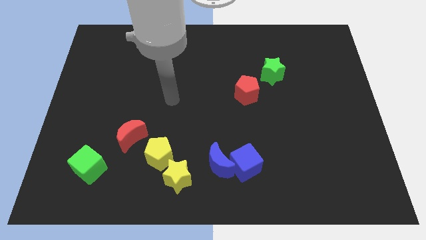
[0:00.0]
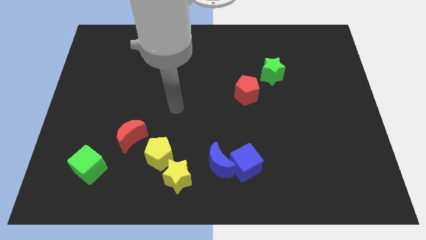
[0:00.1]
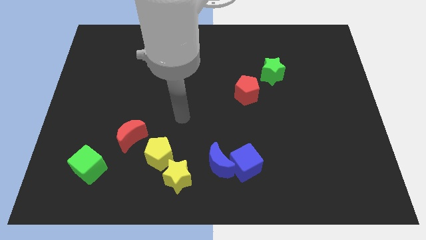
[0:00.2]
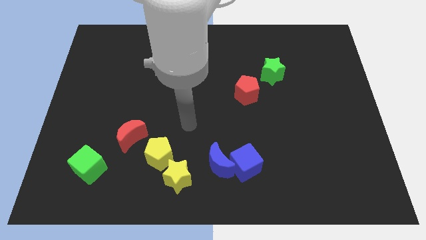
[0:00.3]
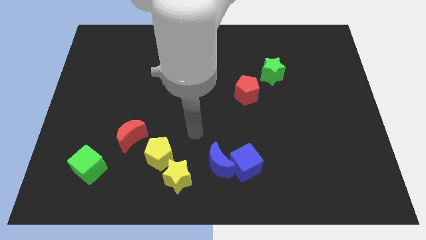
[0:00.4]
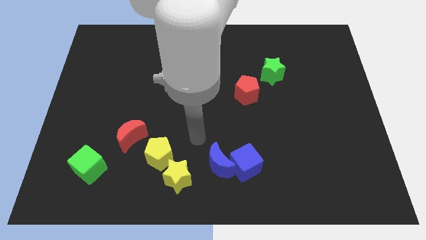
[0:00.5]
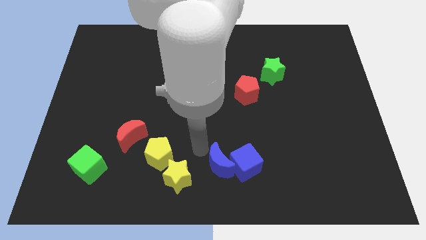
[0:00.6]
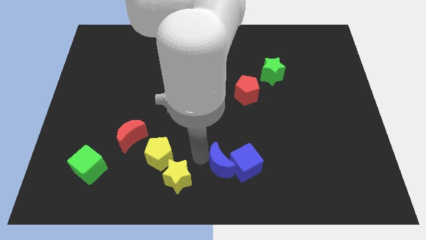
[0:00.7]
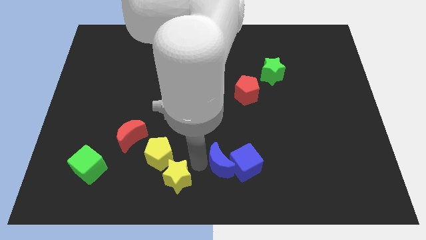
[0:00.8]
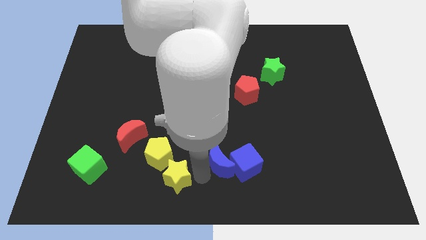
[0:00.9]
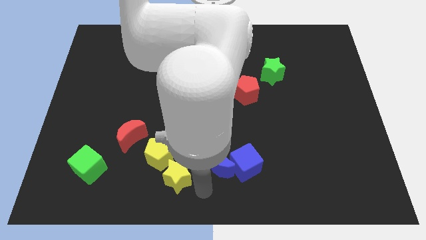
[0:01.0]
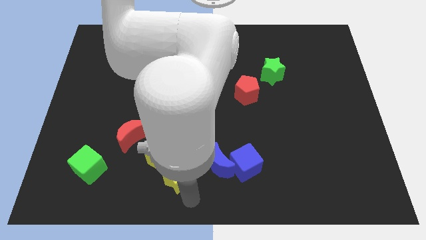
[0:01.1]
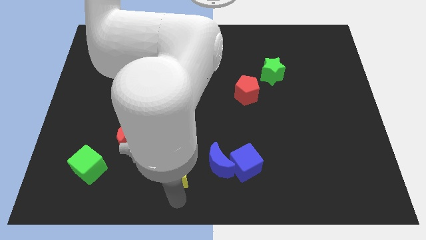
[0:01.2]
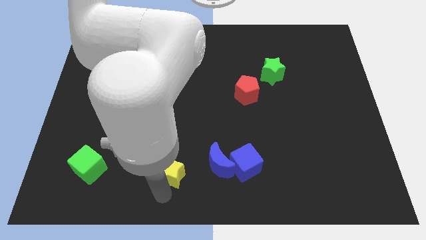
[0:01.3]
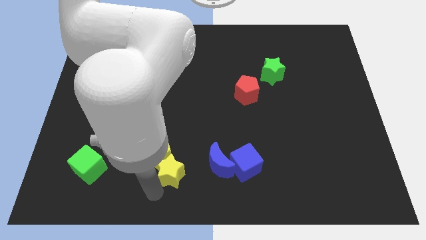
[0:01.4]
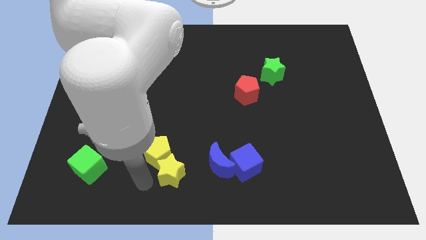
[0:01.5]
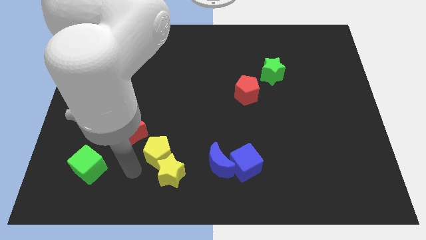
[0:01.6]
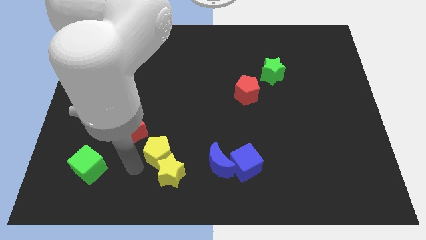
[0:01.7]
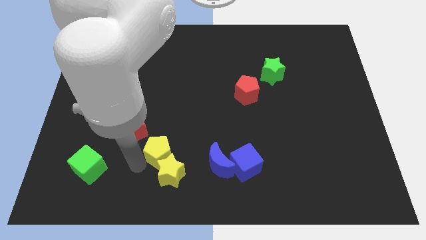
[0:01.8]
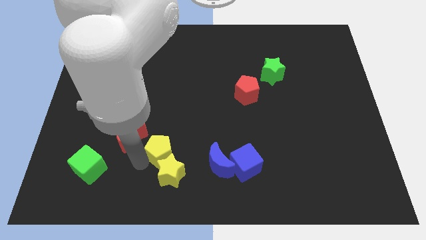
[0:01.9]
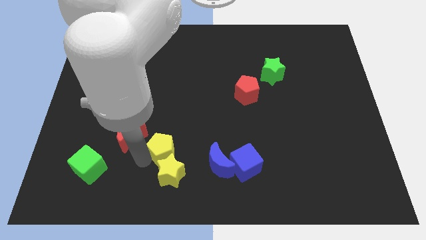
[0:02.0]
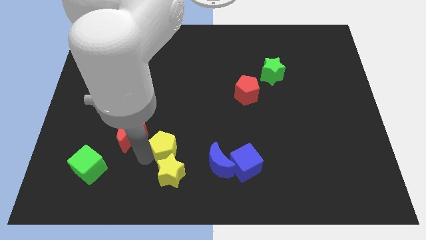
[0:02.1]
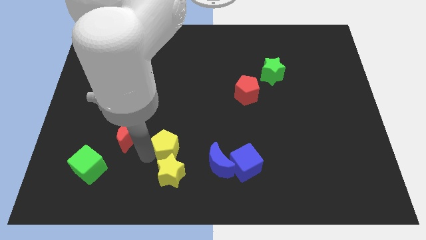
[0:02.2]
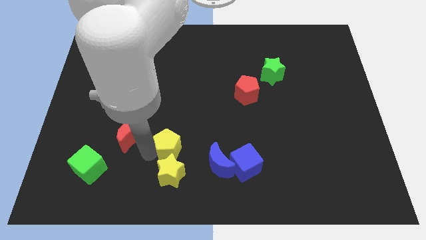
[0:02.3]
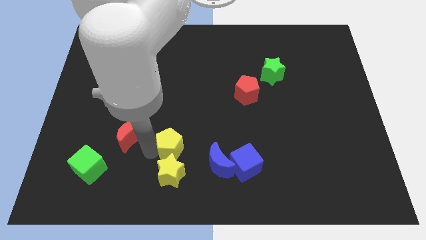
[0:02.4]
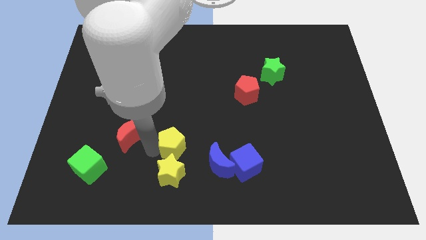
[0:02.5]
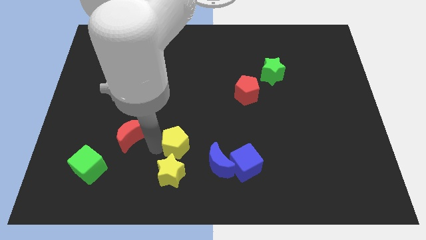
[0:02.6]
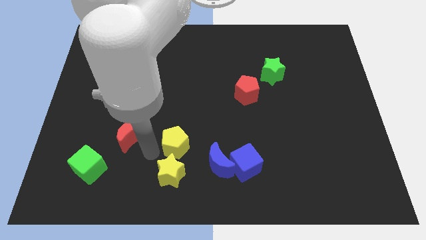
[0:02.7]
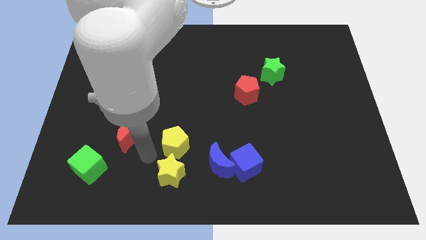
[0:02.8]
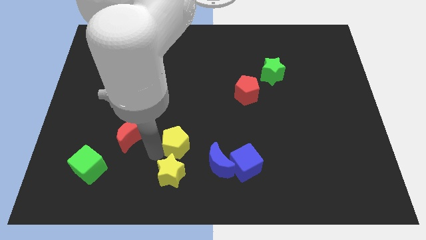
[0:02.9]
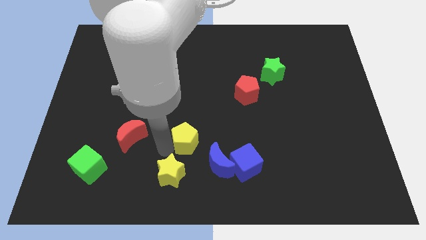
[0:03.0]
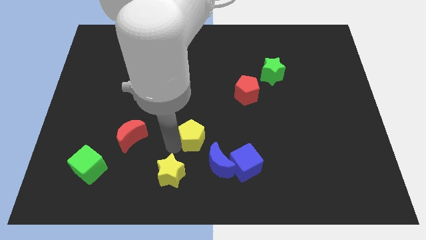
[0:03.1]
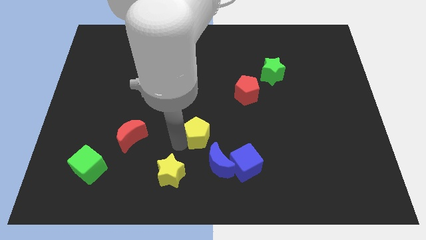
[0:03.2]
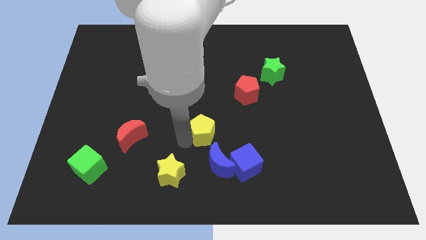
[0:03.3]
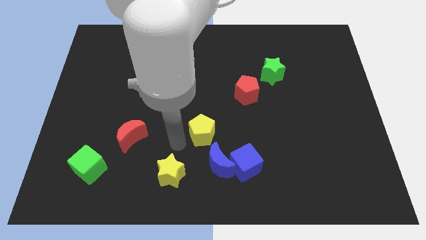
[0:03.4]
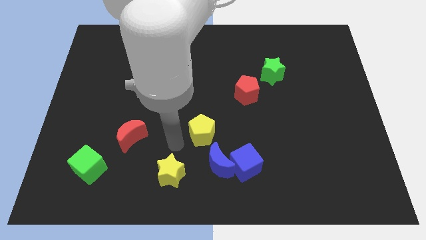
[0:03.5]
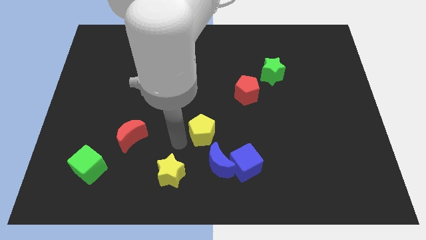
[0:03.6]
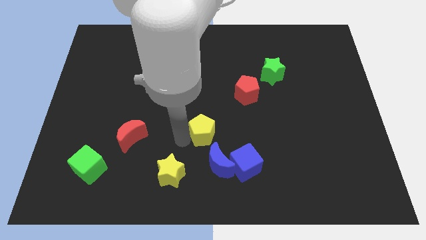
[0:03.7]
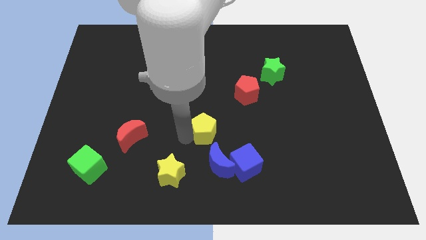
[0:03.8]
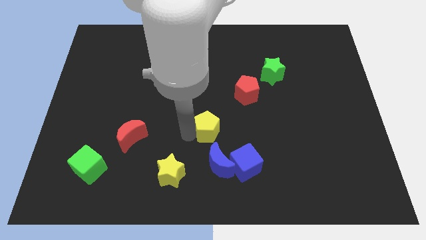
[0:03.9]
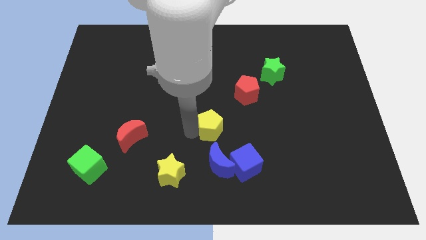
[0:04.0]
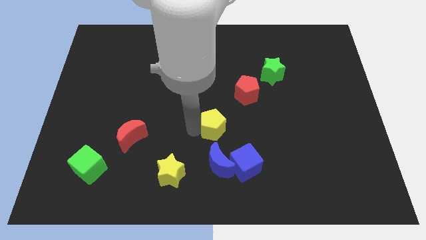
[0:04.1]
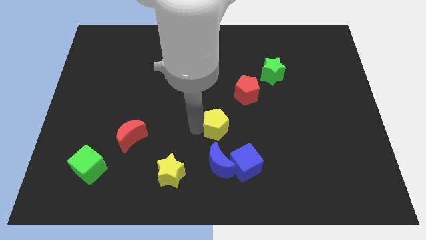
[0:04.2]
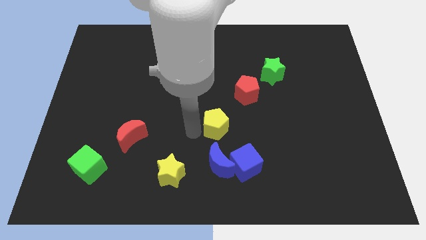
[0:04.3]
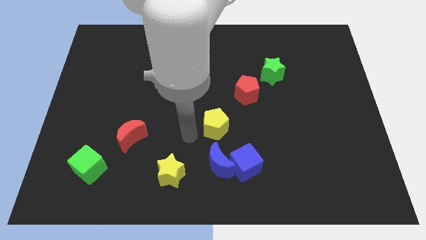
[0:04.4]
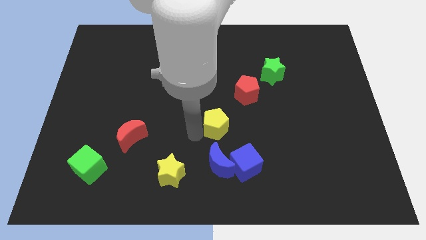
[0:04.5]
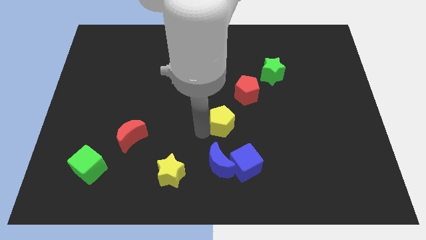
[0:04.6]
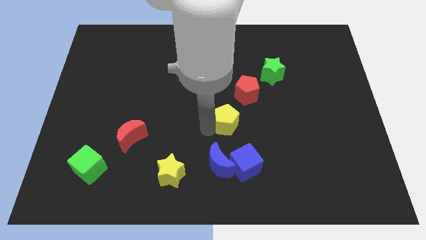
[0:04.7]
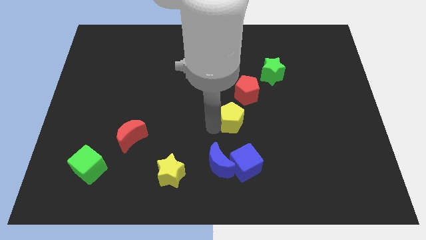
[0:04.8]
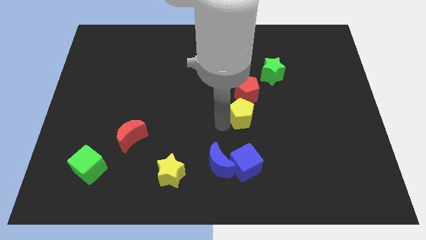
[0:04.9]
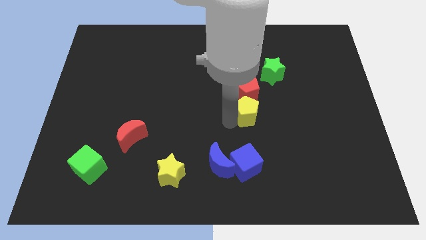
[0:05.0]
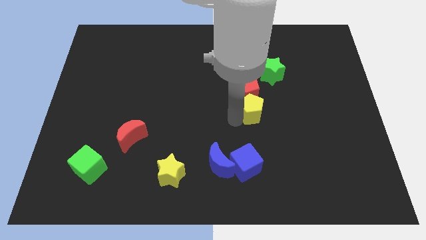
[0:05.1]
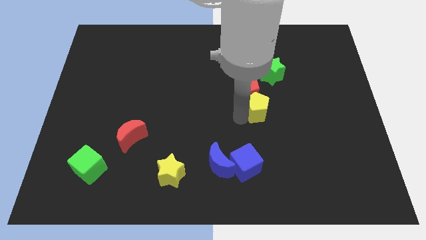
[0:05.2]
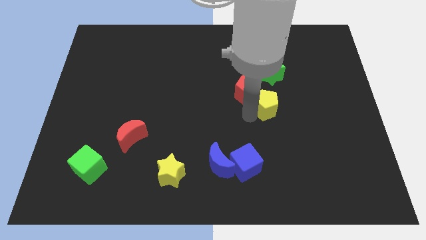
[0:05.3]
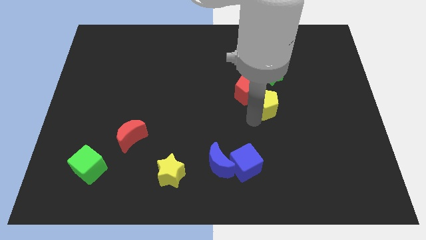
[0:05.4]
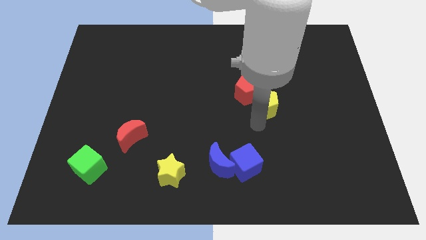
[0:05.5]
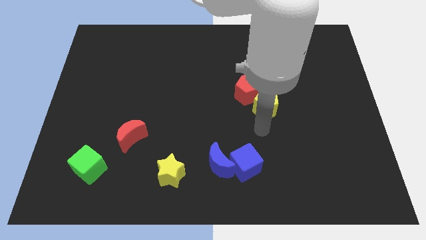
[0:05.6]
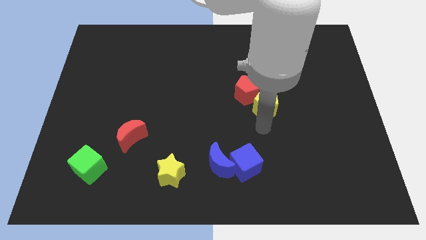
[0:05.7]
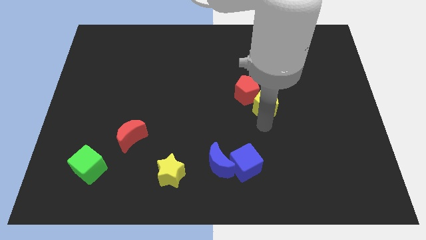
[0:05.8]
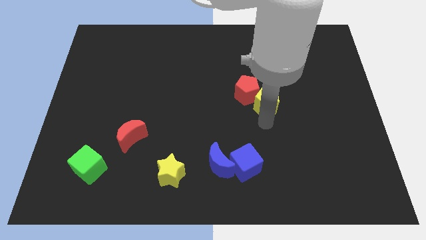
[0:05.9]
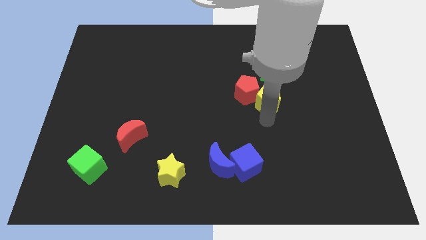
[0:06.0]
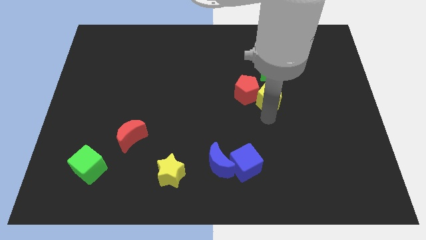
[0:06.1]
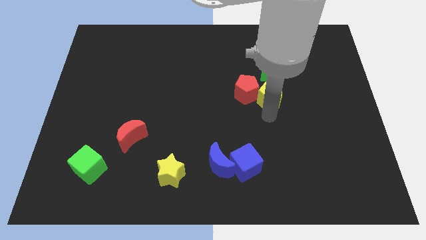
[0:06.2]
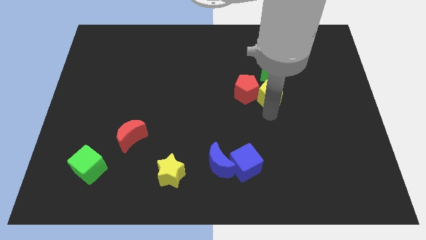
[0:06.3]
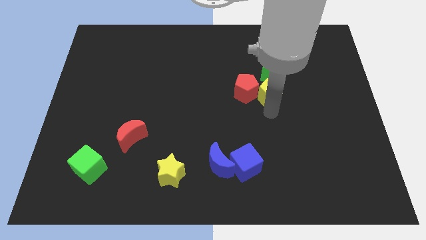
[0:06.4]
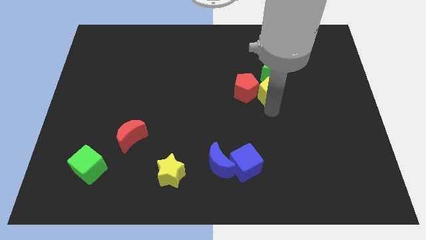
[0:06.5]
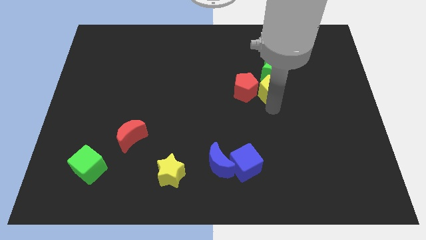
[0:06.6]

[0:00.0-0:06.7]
put the yellow pentagon close to the green star

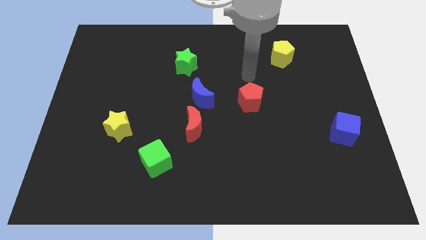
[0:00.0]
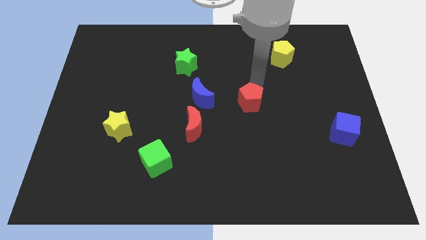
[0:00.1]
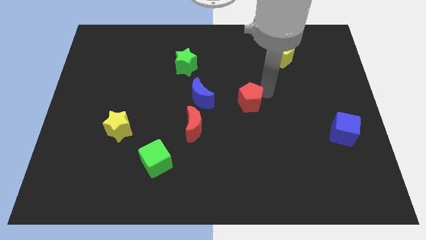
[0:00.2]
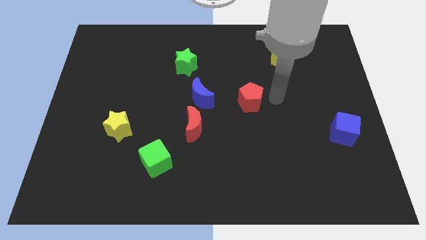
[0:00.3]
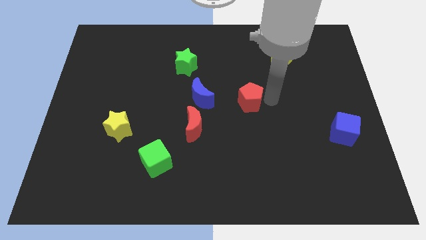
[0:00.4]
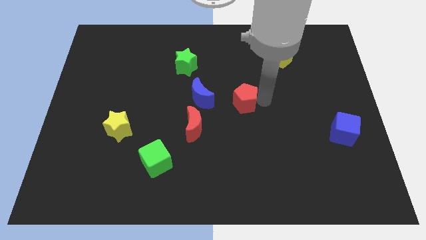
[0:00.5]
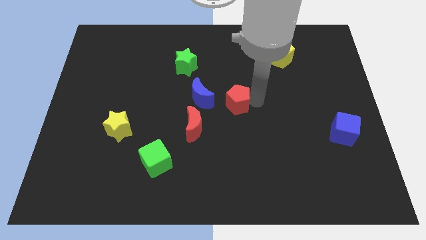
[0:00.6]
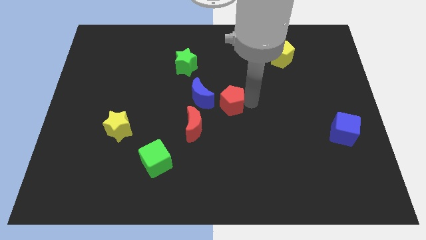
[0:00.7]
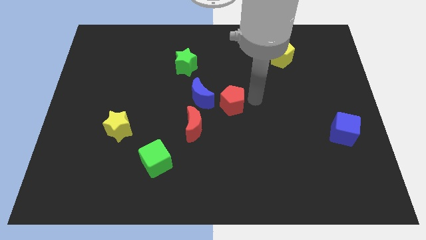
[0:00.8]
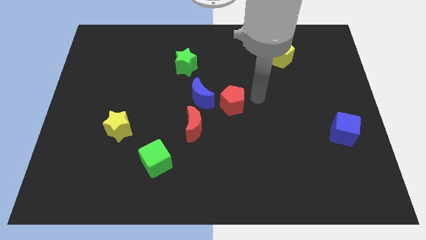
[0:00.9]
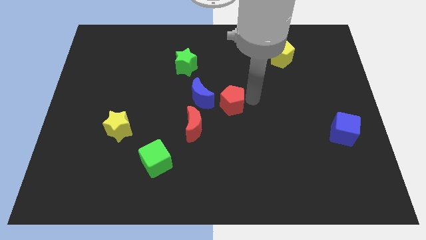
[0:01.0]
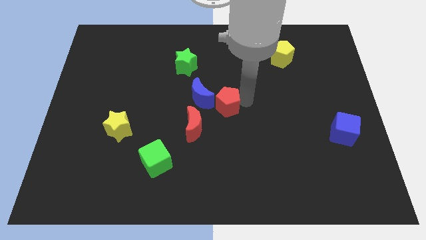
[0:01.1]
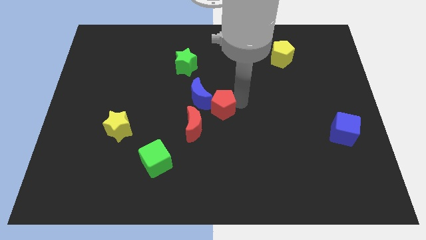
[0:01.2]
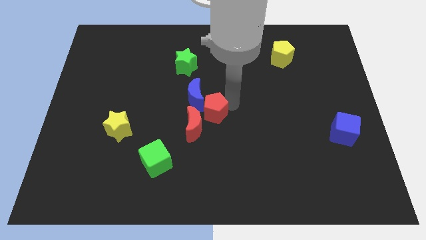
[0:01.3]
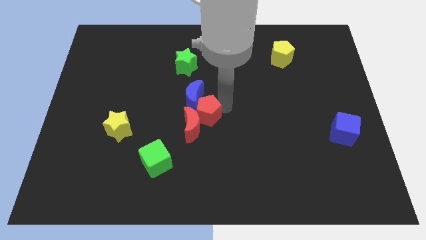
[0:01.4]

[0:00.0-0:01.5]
move the red pentagon to the red moon
